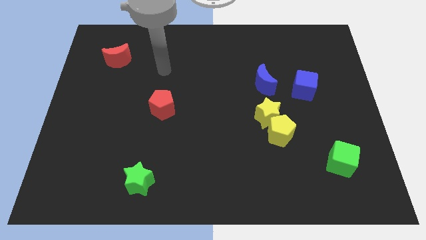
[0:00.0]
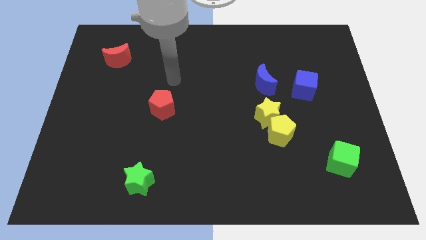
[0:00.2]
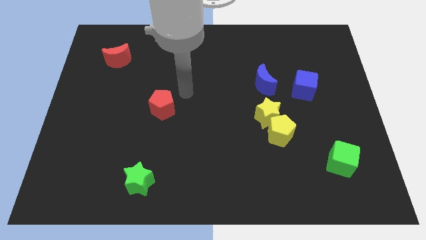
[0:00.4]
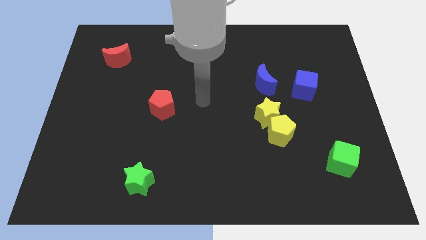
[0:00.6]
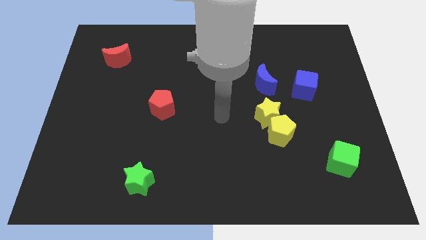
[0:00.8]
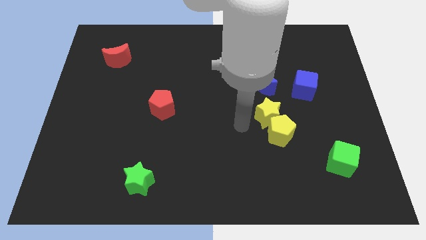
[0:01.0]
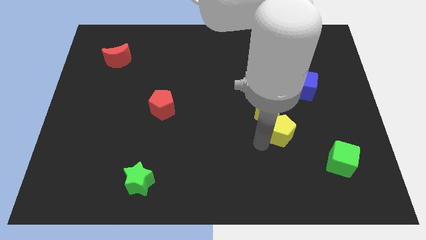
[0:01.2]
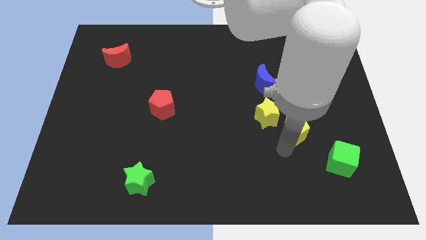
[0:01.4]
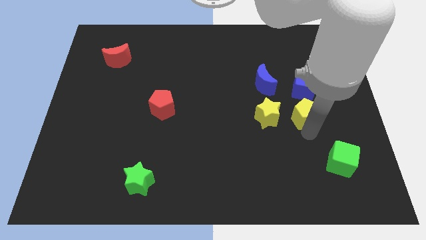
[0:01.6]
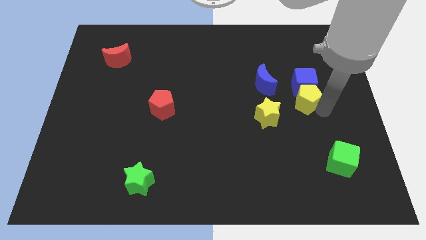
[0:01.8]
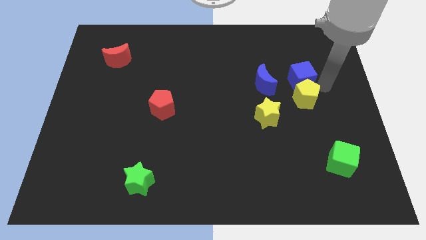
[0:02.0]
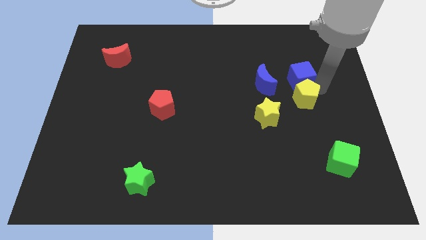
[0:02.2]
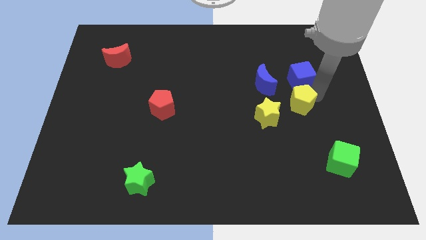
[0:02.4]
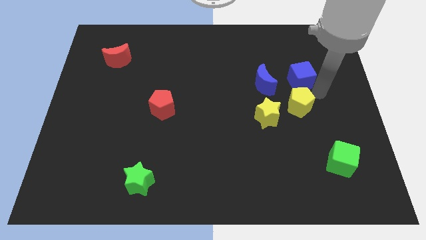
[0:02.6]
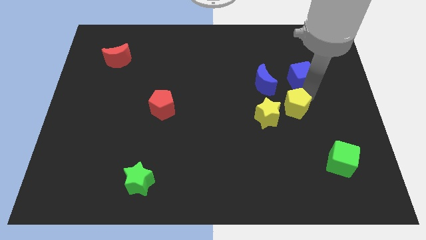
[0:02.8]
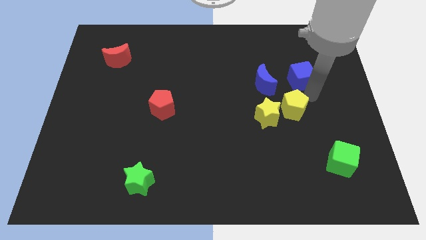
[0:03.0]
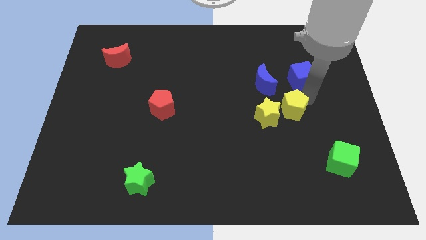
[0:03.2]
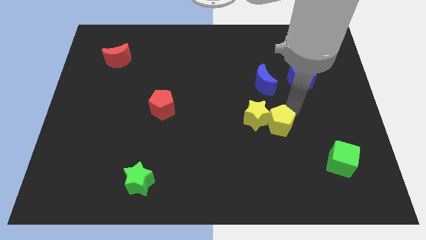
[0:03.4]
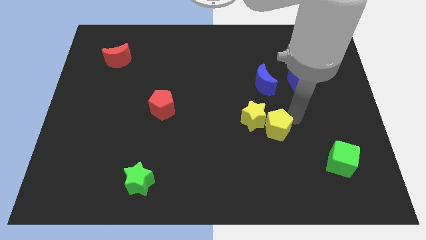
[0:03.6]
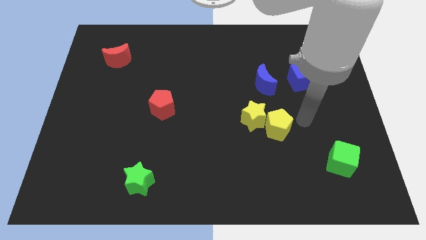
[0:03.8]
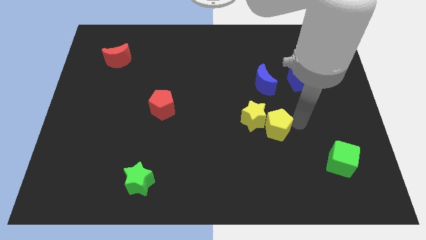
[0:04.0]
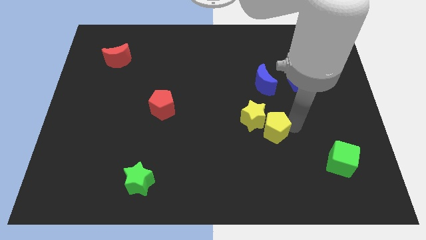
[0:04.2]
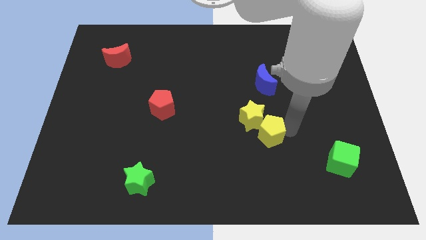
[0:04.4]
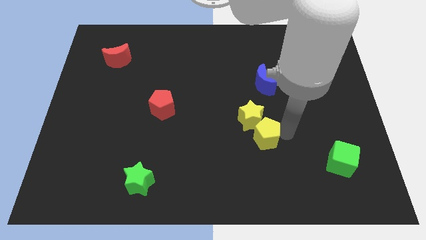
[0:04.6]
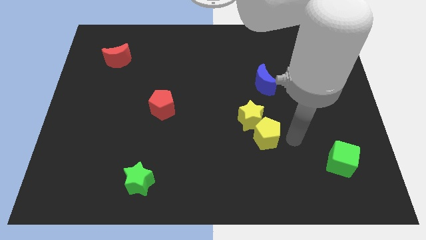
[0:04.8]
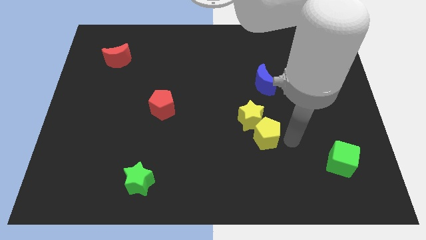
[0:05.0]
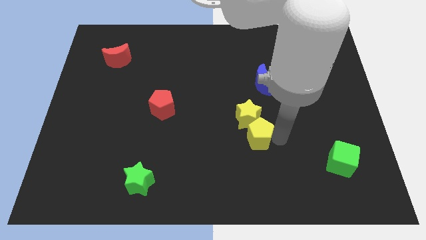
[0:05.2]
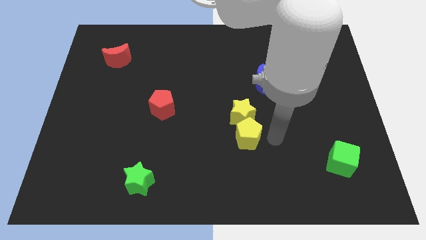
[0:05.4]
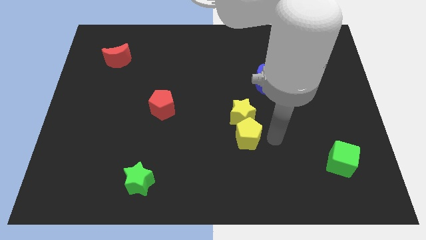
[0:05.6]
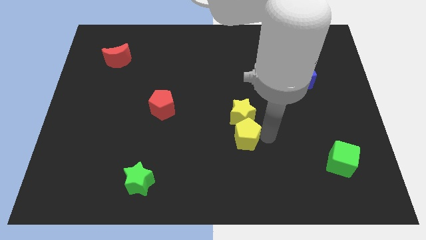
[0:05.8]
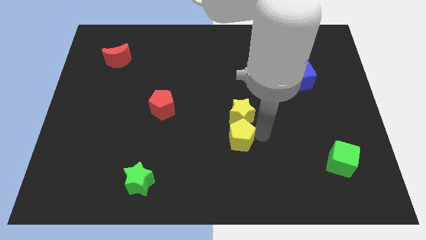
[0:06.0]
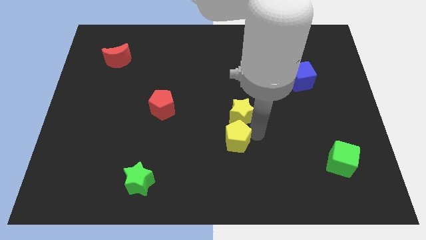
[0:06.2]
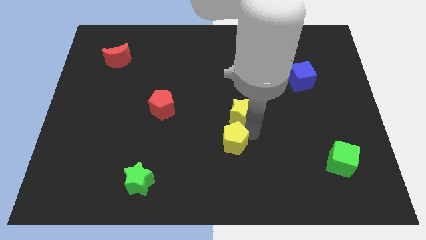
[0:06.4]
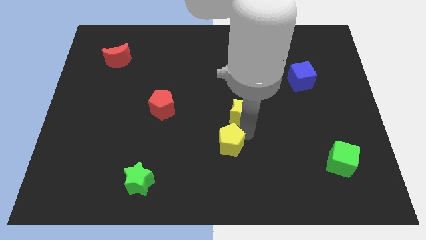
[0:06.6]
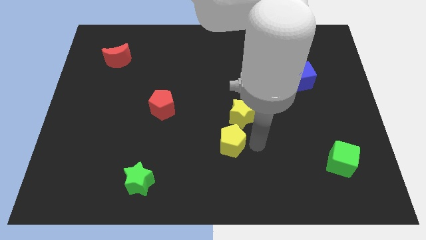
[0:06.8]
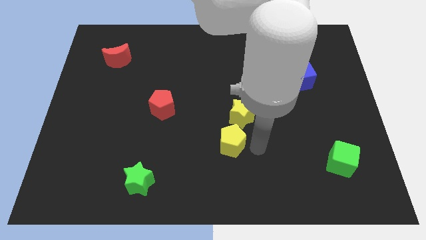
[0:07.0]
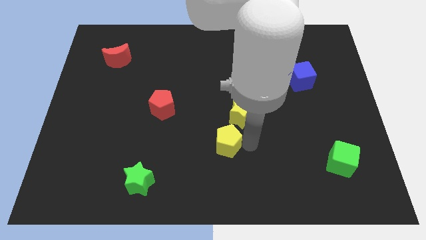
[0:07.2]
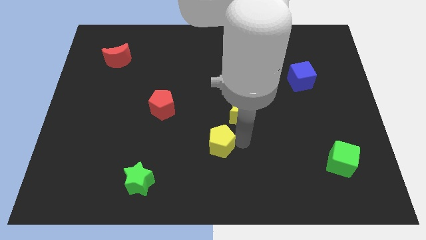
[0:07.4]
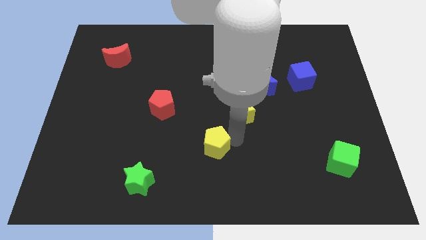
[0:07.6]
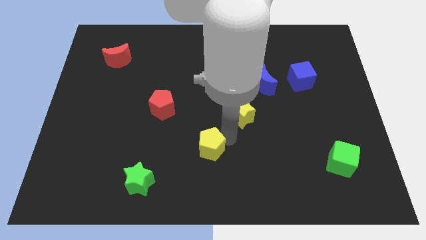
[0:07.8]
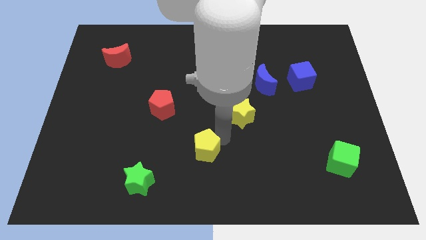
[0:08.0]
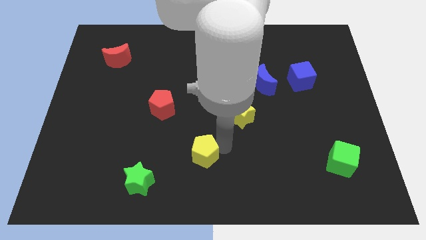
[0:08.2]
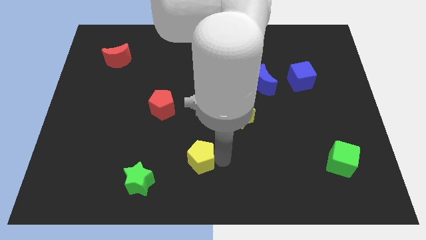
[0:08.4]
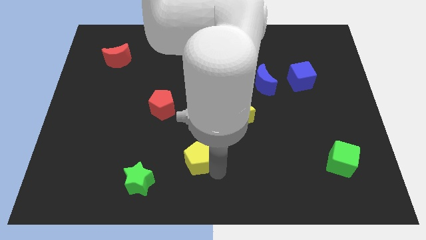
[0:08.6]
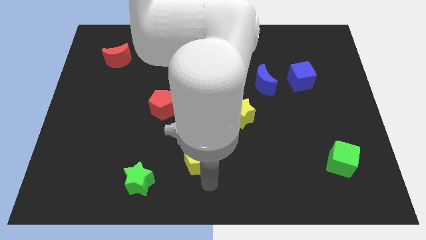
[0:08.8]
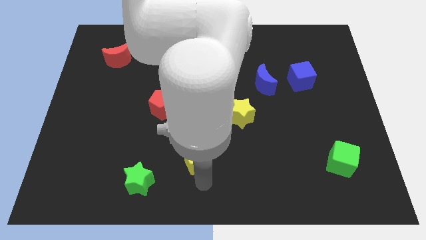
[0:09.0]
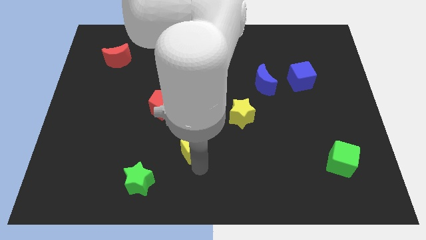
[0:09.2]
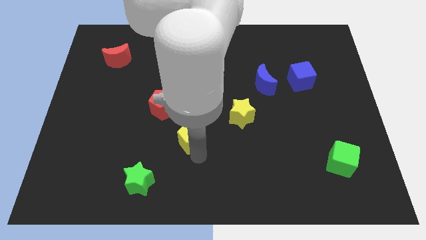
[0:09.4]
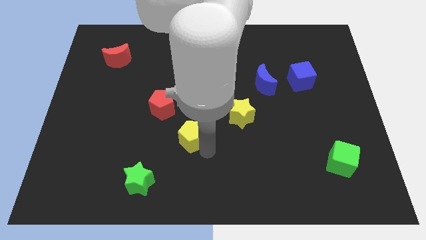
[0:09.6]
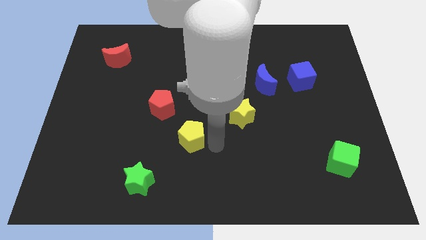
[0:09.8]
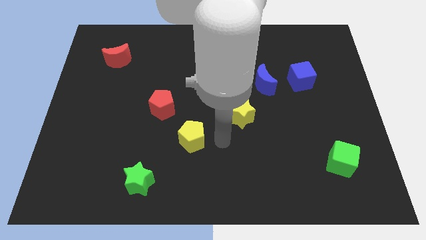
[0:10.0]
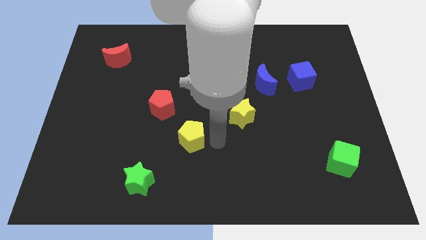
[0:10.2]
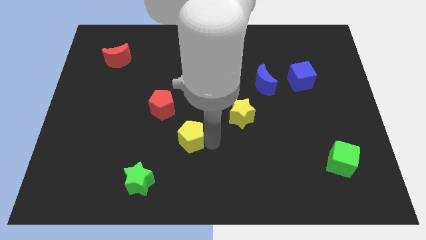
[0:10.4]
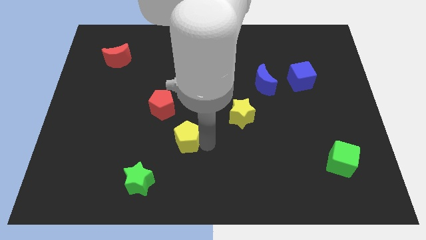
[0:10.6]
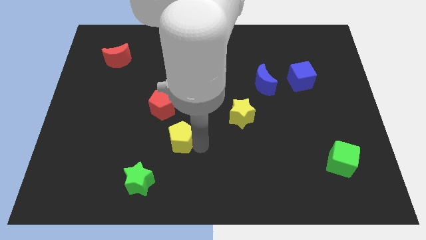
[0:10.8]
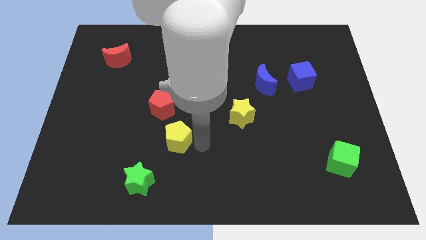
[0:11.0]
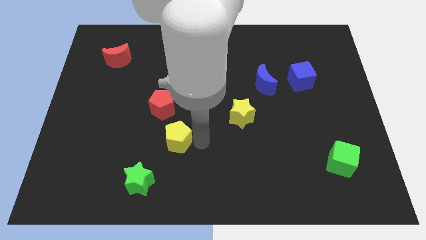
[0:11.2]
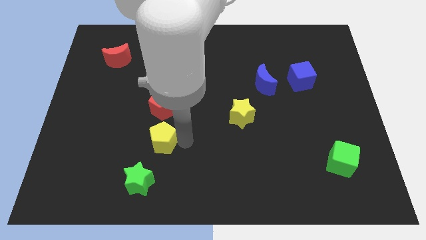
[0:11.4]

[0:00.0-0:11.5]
put the yellow pentagon to the top side of the green star

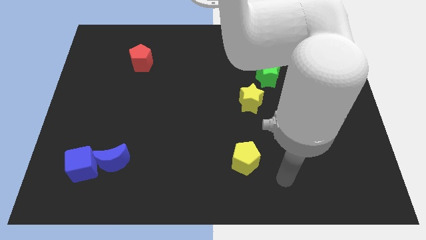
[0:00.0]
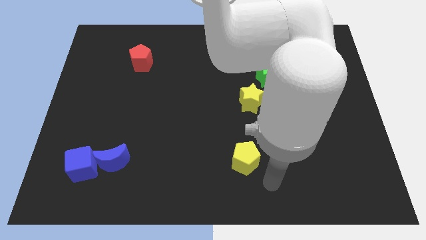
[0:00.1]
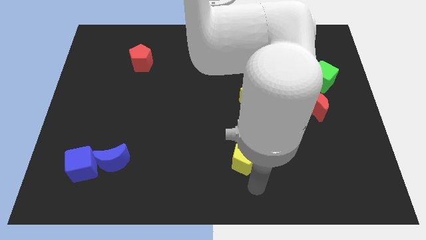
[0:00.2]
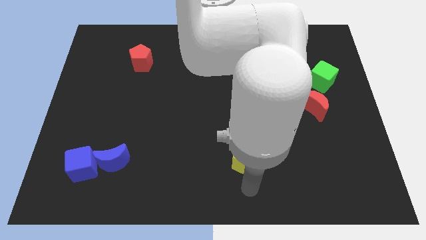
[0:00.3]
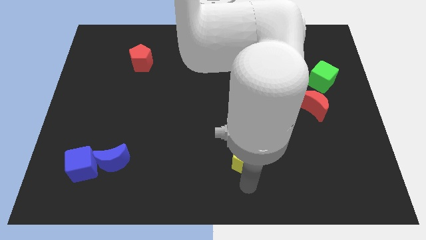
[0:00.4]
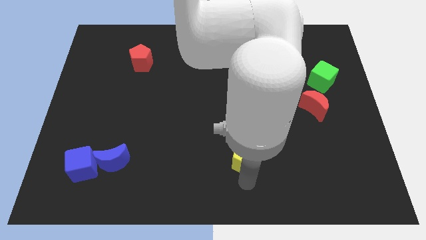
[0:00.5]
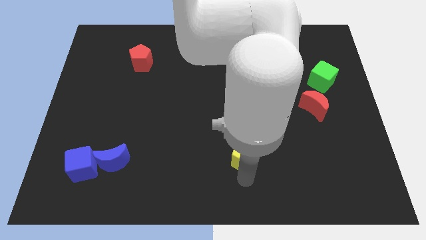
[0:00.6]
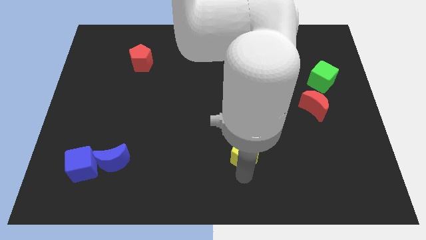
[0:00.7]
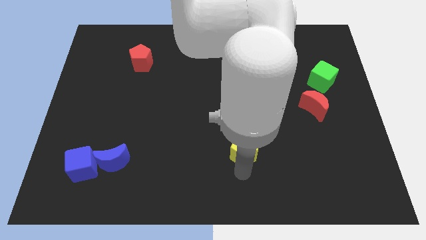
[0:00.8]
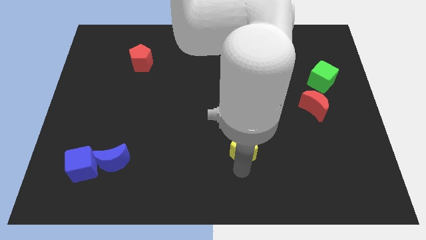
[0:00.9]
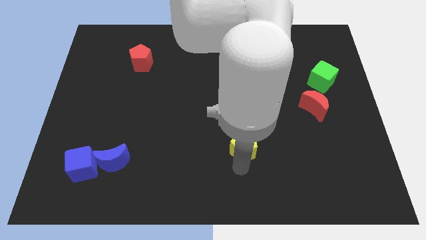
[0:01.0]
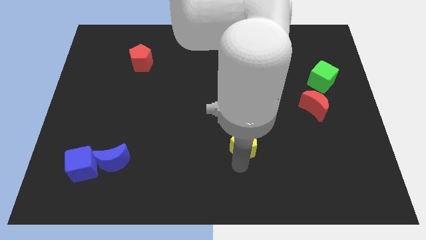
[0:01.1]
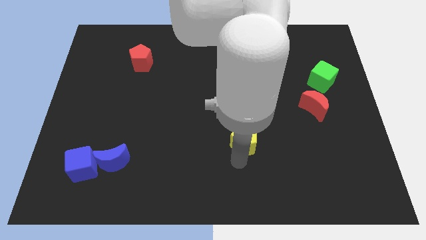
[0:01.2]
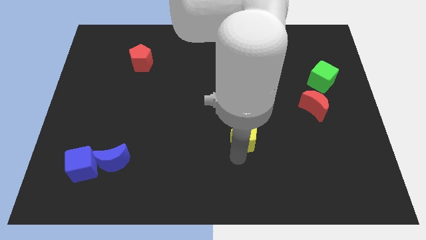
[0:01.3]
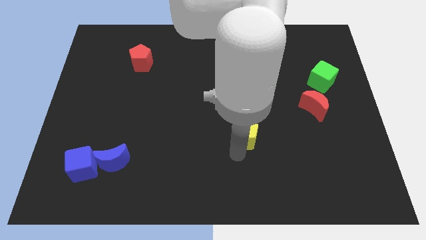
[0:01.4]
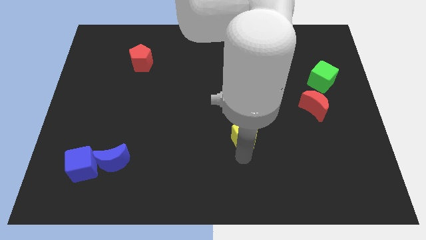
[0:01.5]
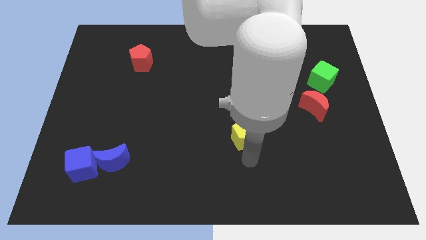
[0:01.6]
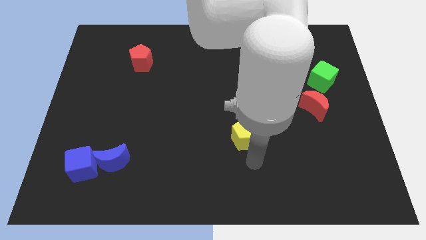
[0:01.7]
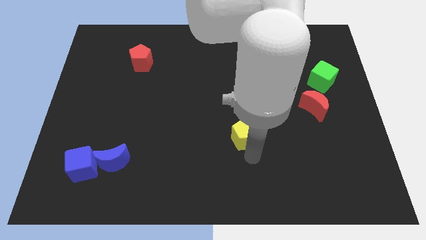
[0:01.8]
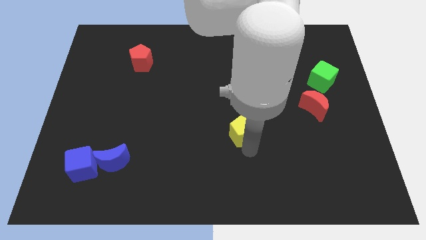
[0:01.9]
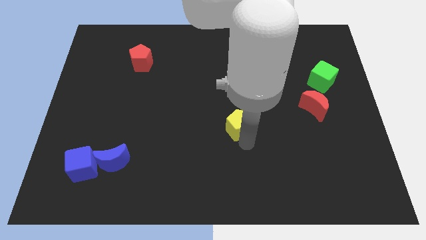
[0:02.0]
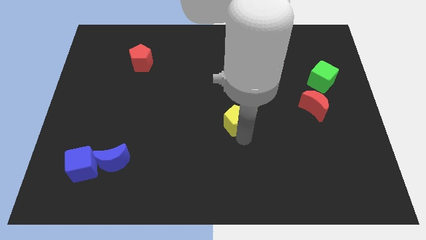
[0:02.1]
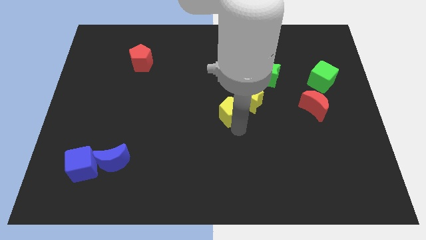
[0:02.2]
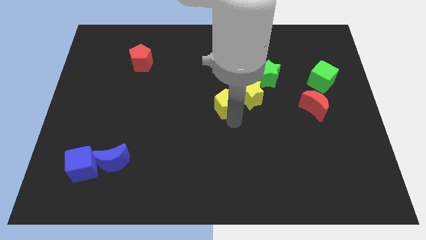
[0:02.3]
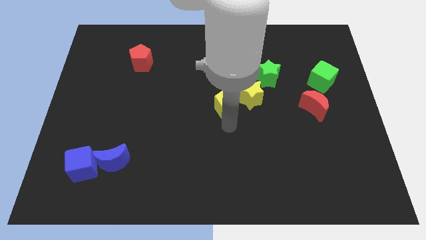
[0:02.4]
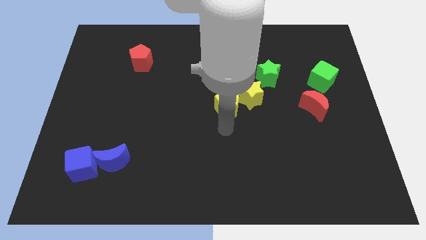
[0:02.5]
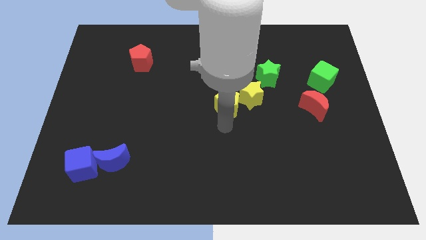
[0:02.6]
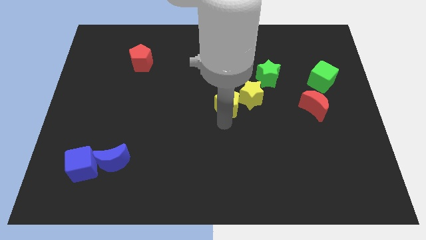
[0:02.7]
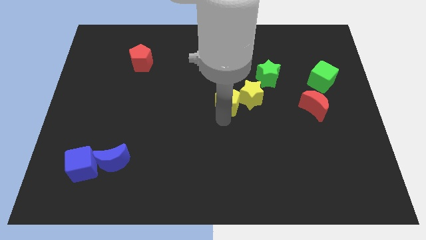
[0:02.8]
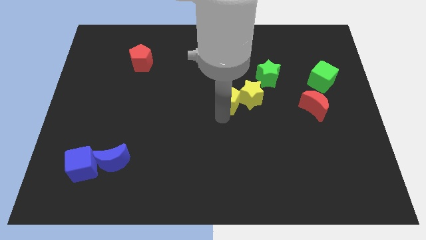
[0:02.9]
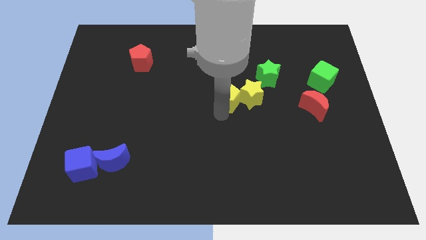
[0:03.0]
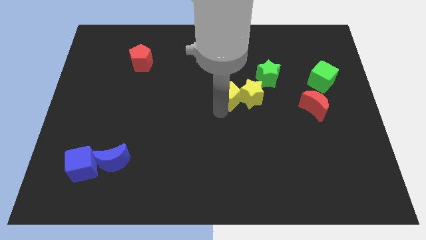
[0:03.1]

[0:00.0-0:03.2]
push the yellow pentagon diagonally up and to the left of the yellow star
